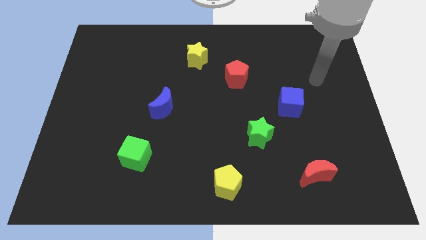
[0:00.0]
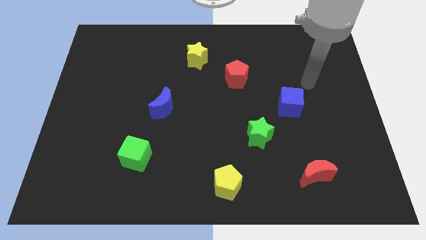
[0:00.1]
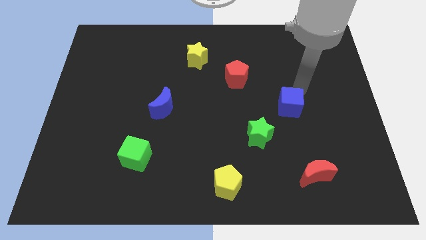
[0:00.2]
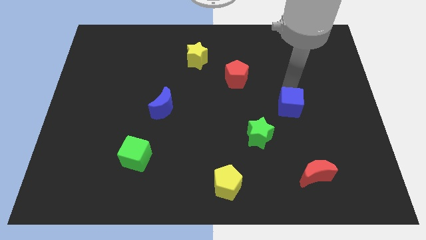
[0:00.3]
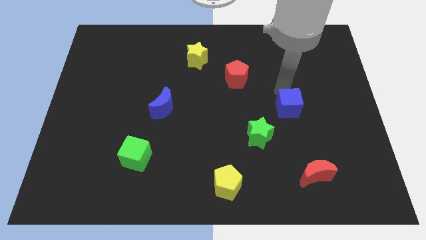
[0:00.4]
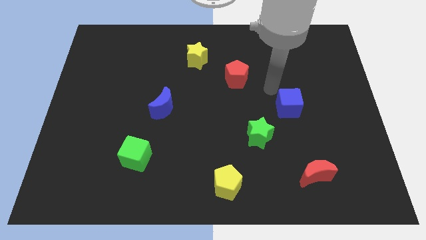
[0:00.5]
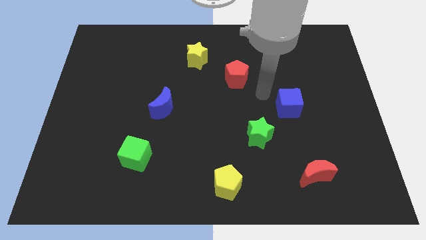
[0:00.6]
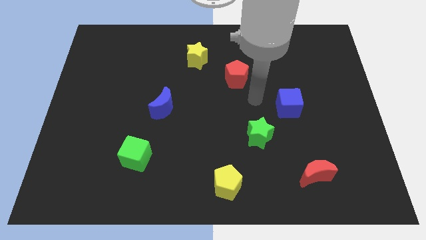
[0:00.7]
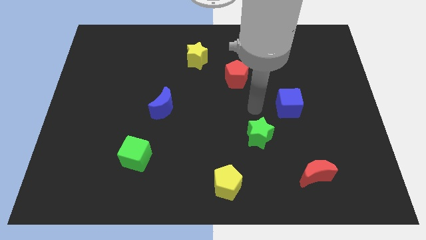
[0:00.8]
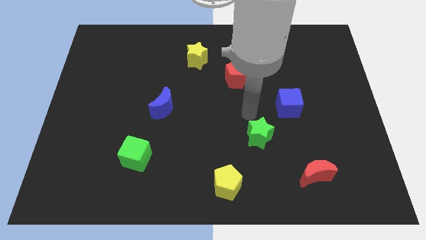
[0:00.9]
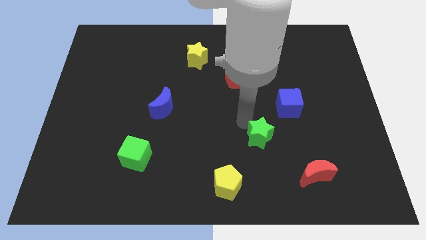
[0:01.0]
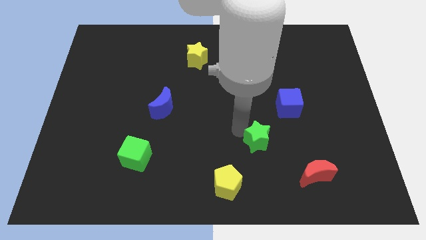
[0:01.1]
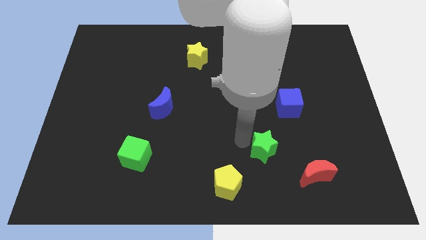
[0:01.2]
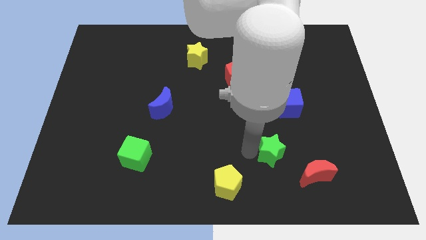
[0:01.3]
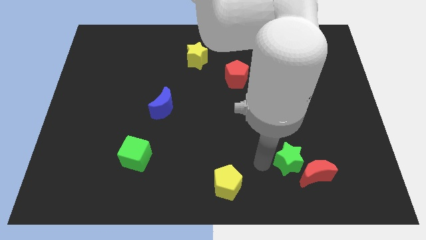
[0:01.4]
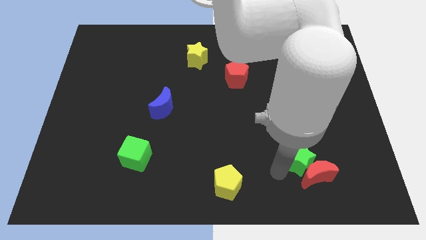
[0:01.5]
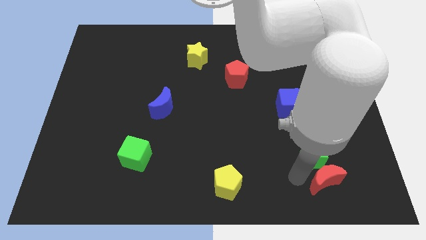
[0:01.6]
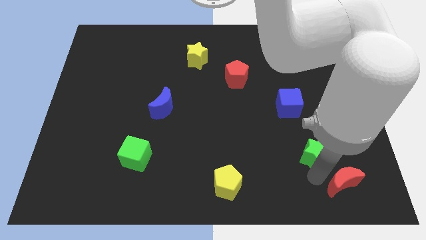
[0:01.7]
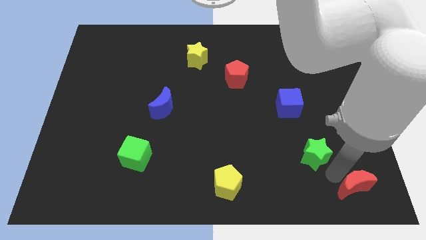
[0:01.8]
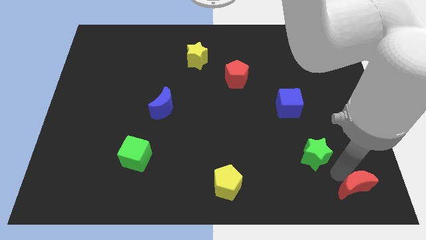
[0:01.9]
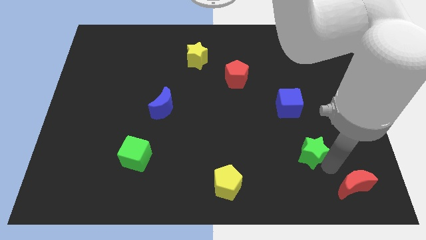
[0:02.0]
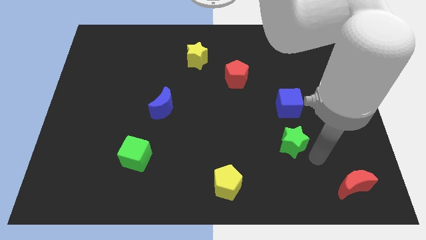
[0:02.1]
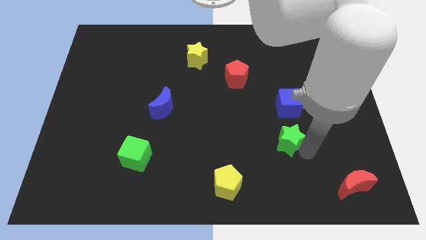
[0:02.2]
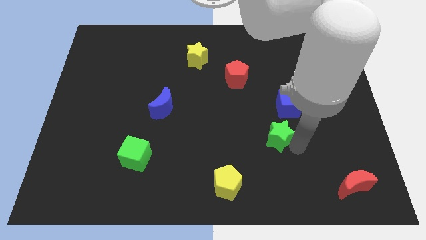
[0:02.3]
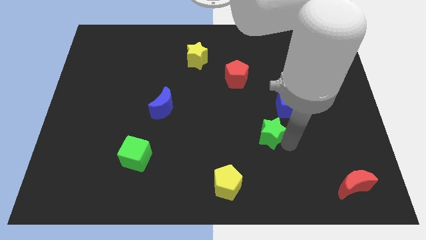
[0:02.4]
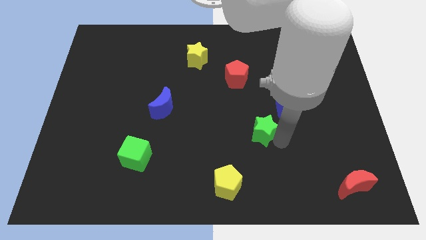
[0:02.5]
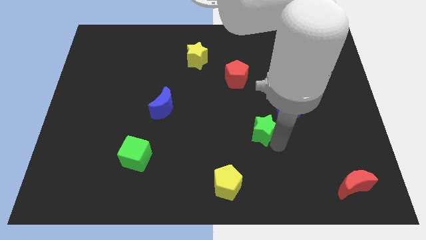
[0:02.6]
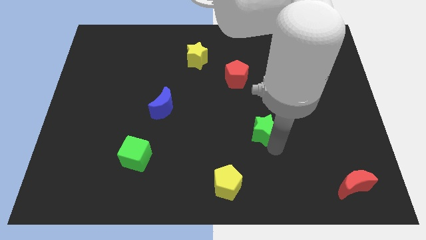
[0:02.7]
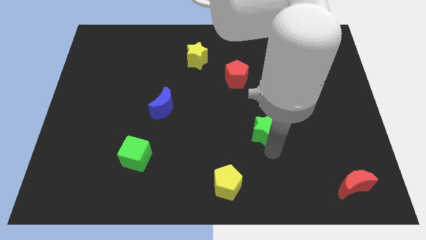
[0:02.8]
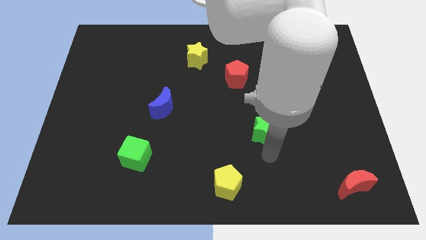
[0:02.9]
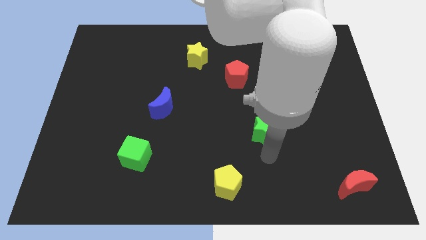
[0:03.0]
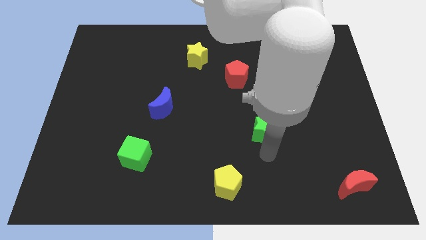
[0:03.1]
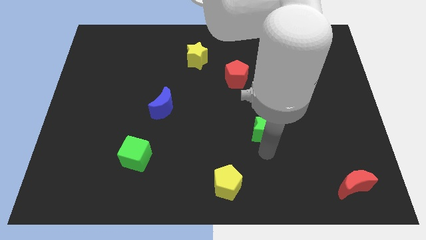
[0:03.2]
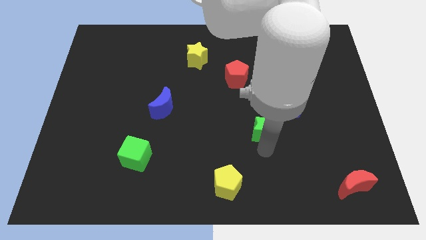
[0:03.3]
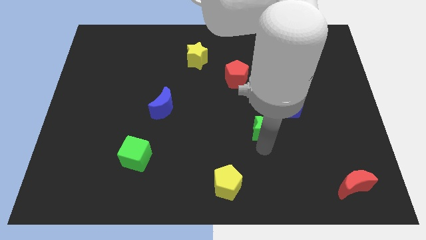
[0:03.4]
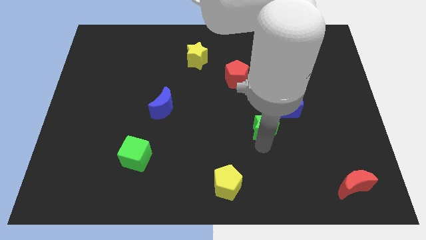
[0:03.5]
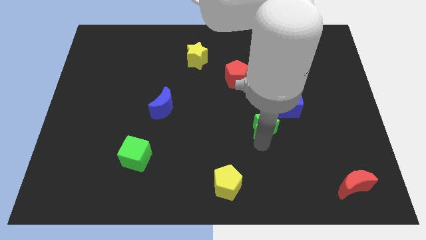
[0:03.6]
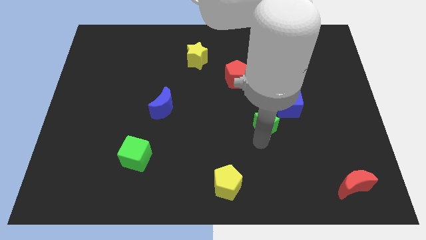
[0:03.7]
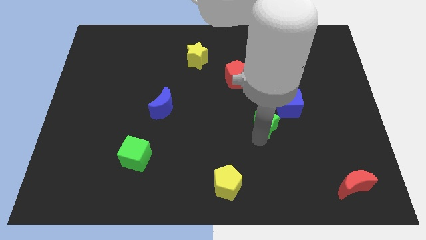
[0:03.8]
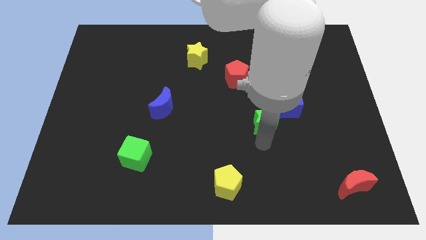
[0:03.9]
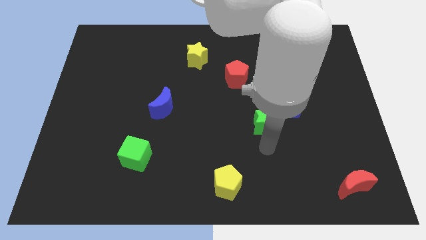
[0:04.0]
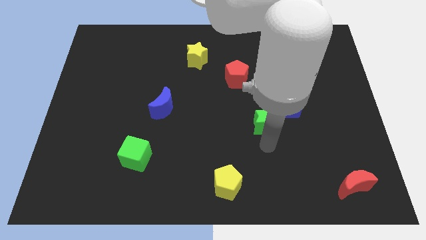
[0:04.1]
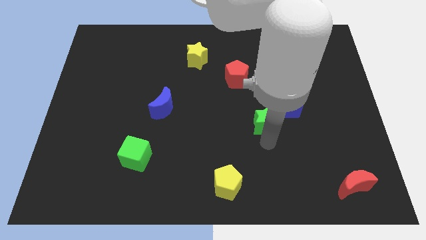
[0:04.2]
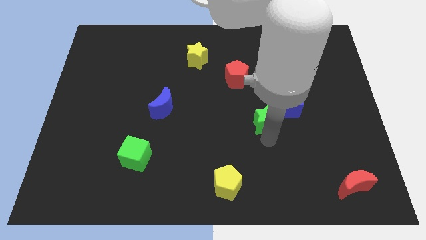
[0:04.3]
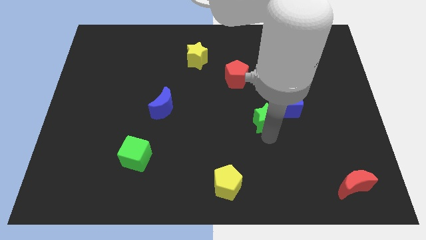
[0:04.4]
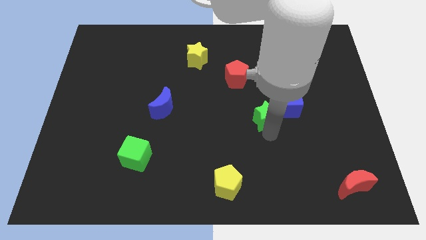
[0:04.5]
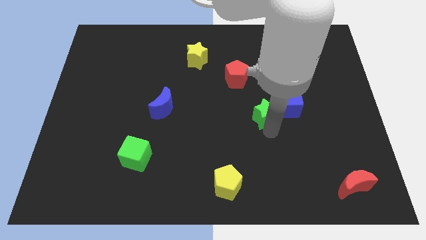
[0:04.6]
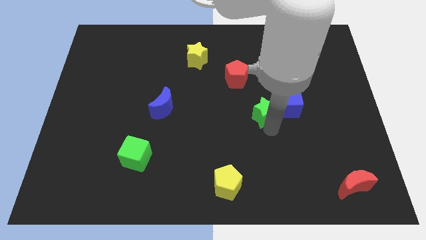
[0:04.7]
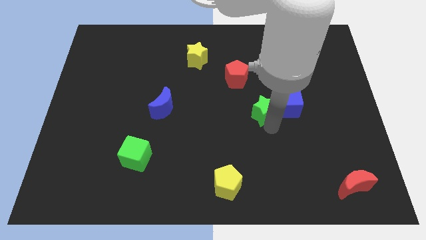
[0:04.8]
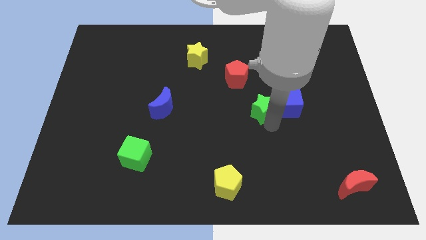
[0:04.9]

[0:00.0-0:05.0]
move the green star a little bit upwards

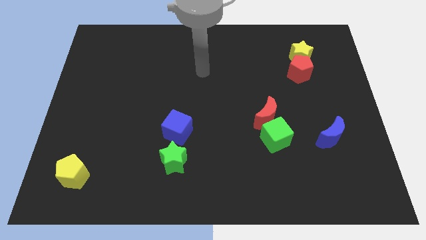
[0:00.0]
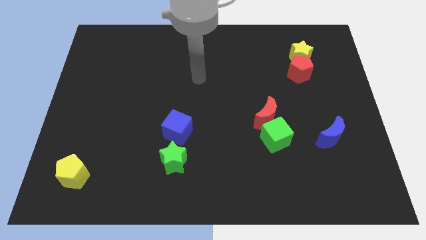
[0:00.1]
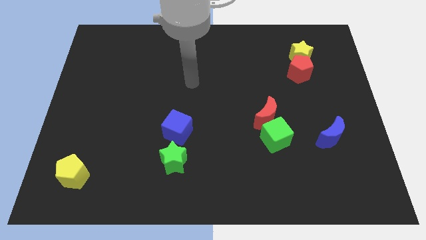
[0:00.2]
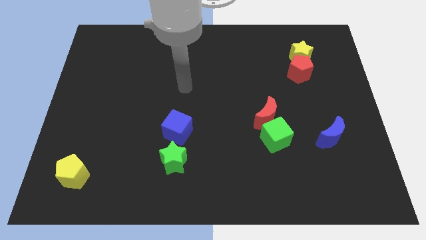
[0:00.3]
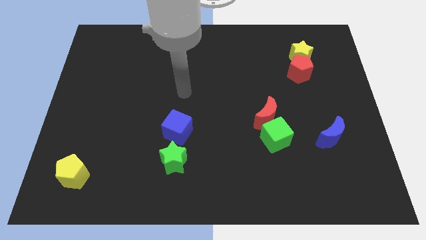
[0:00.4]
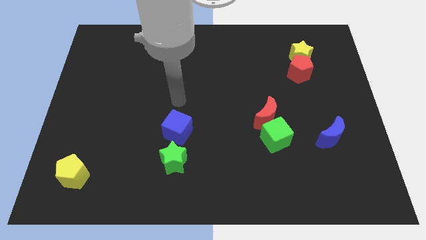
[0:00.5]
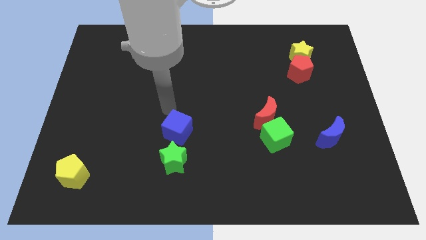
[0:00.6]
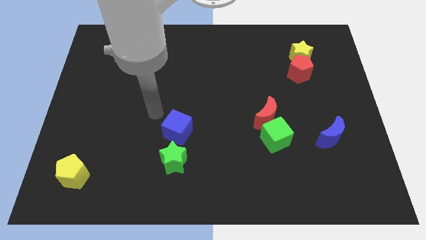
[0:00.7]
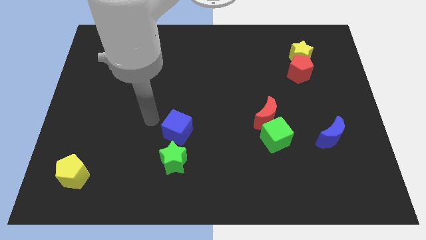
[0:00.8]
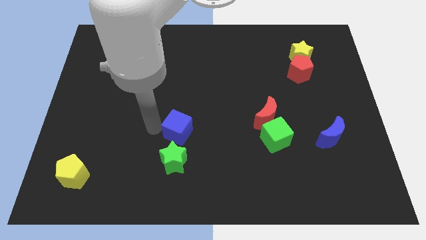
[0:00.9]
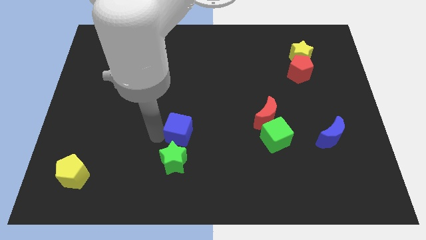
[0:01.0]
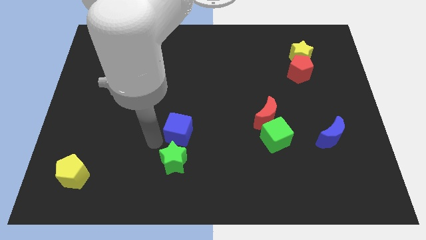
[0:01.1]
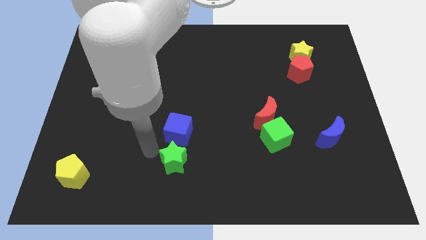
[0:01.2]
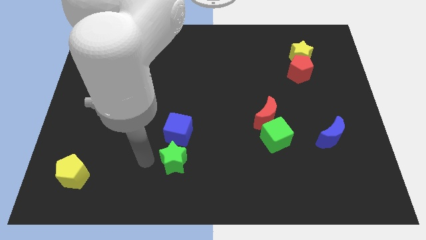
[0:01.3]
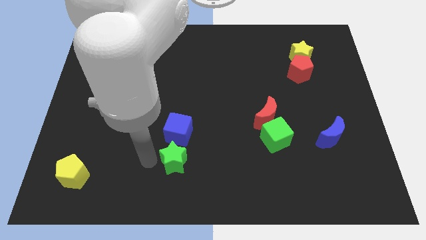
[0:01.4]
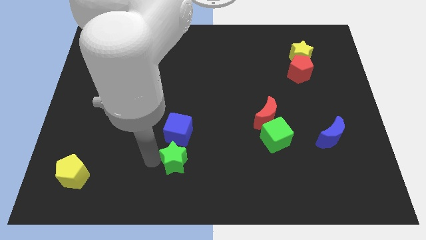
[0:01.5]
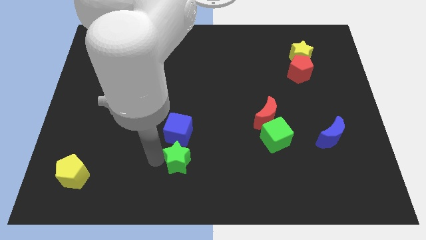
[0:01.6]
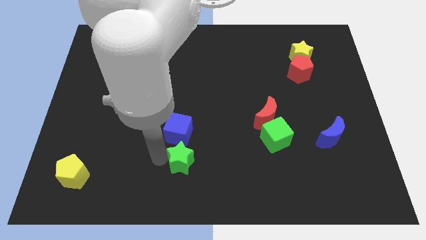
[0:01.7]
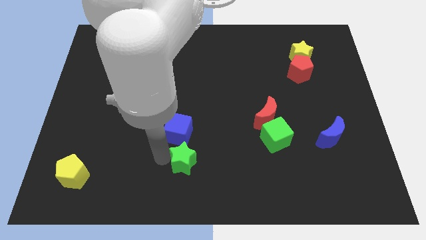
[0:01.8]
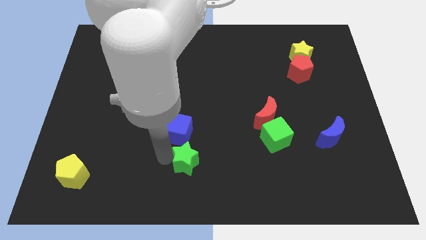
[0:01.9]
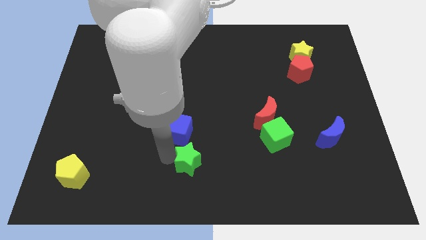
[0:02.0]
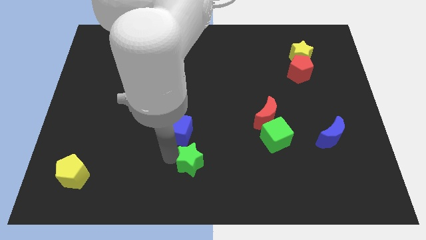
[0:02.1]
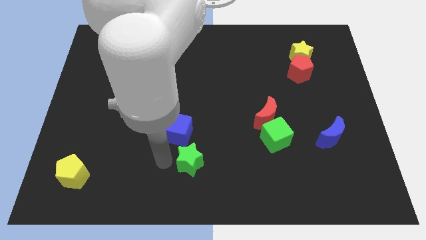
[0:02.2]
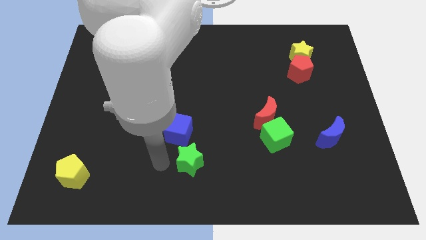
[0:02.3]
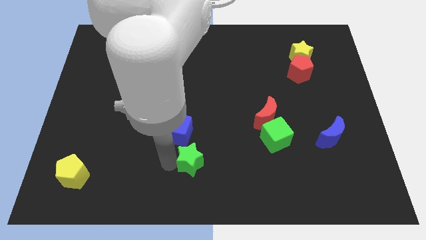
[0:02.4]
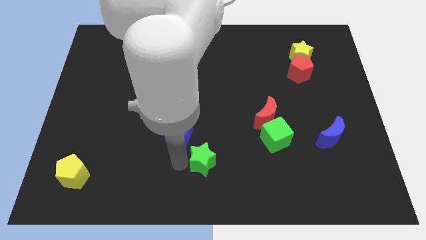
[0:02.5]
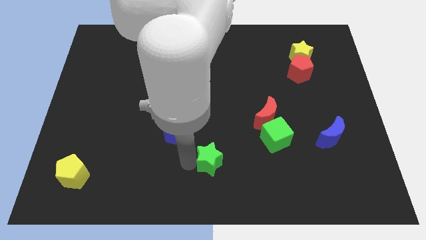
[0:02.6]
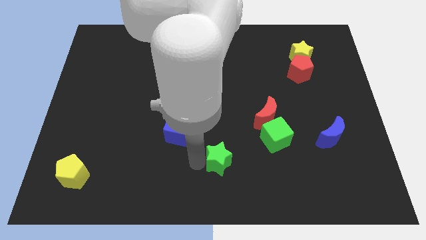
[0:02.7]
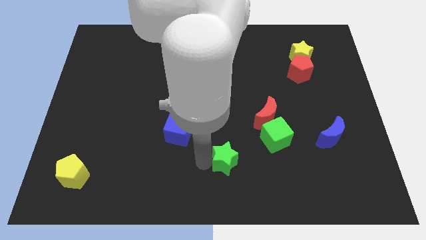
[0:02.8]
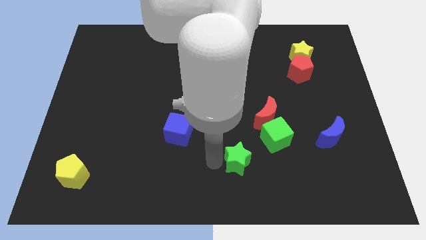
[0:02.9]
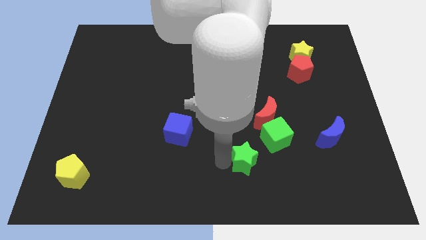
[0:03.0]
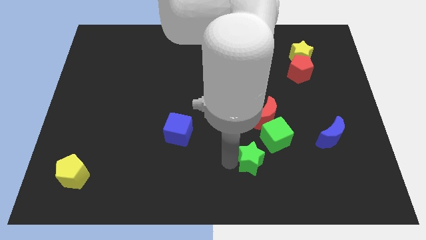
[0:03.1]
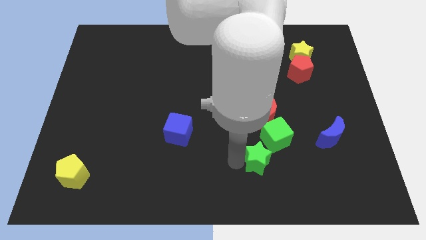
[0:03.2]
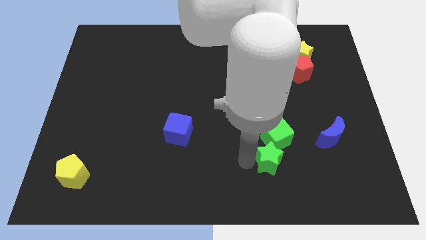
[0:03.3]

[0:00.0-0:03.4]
move the green star right
